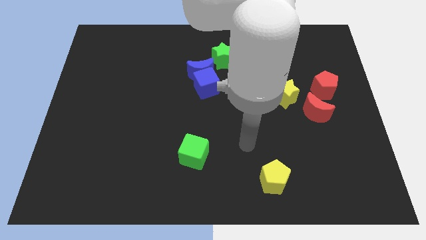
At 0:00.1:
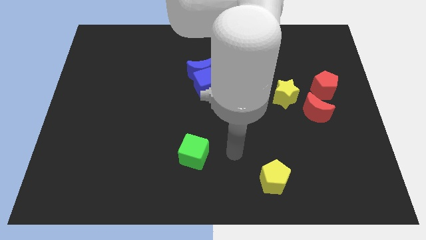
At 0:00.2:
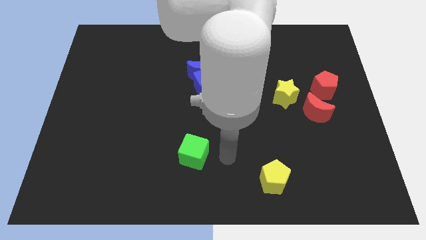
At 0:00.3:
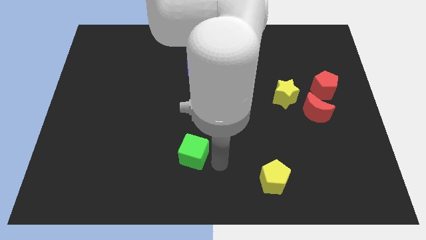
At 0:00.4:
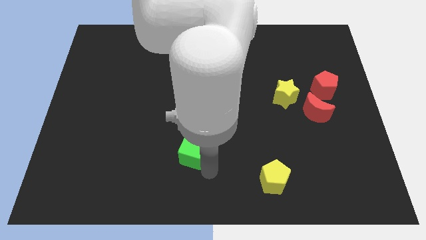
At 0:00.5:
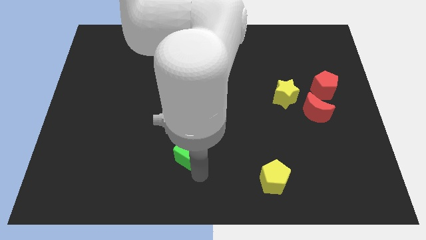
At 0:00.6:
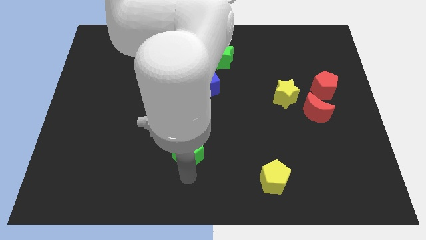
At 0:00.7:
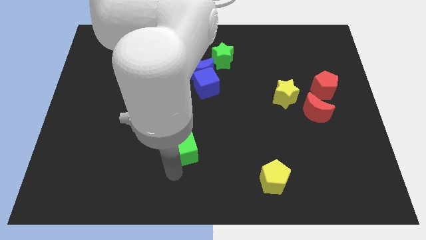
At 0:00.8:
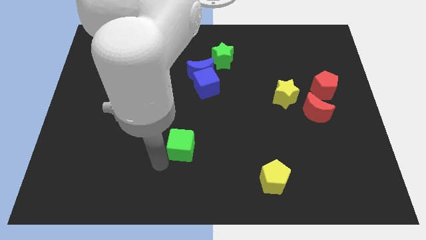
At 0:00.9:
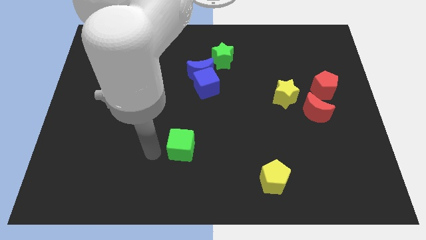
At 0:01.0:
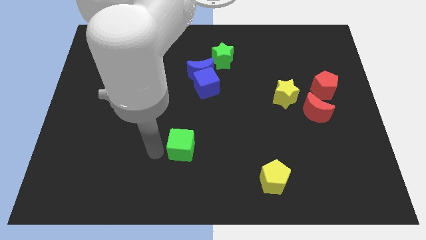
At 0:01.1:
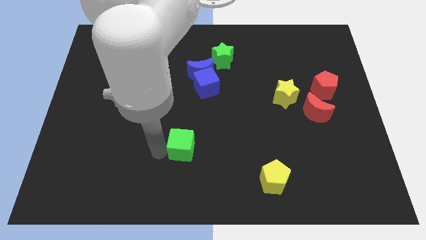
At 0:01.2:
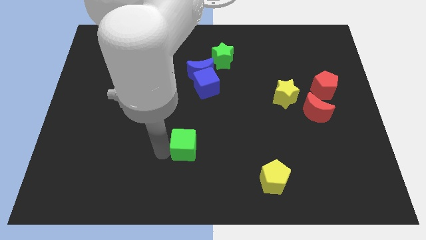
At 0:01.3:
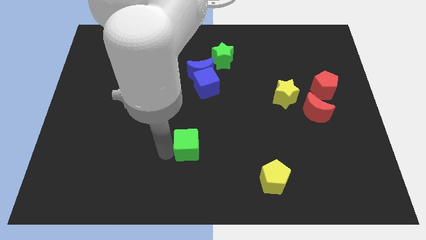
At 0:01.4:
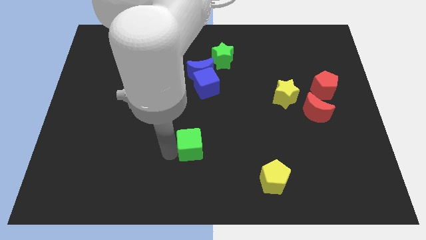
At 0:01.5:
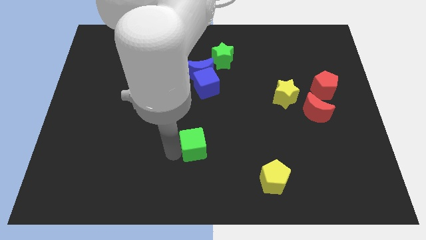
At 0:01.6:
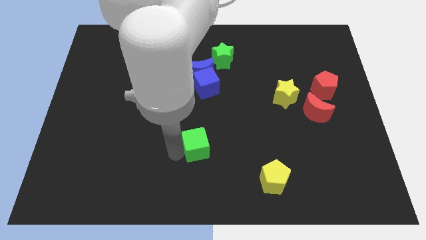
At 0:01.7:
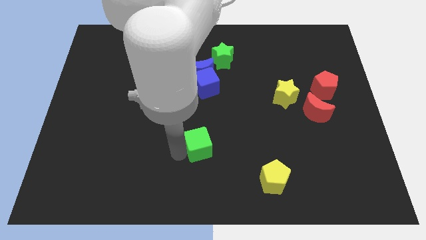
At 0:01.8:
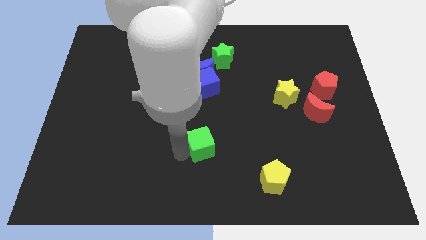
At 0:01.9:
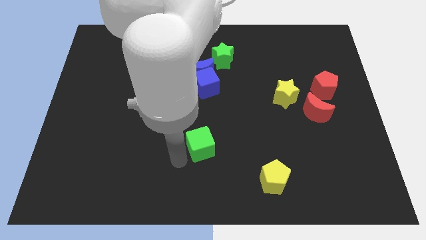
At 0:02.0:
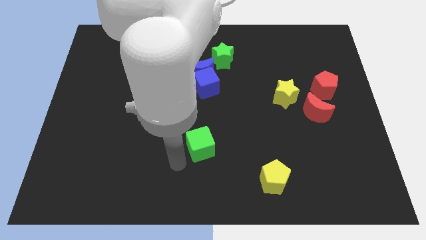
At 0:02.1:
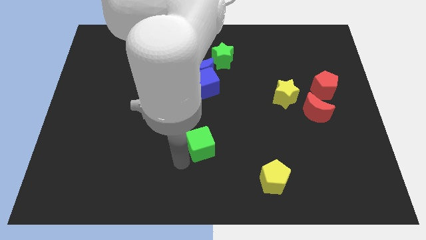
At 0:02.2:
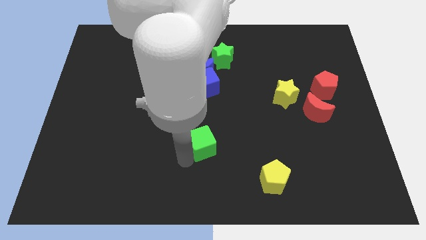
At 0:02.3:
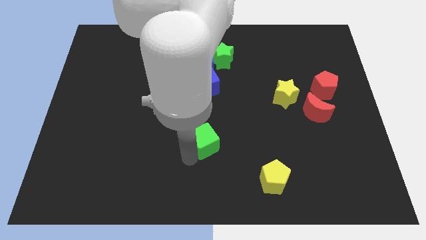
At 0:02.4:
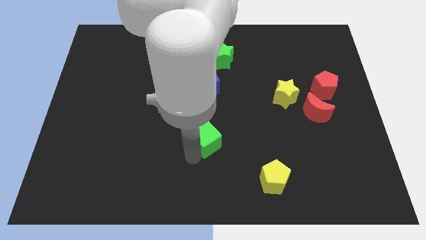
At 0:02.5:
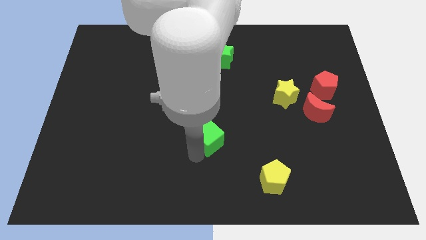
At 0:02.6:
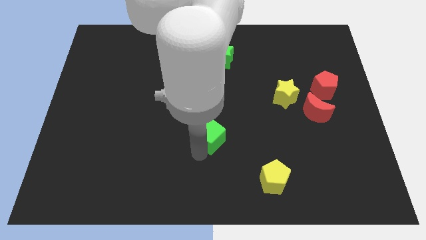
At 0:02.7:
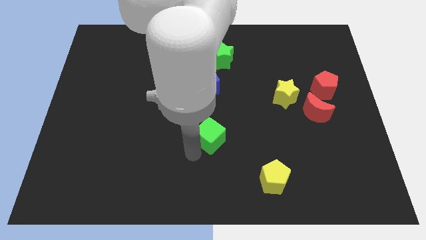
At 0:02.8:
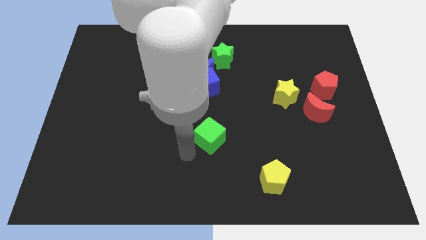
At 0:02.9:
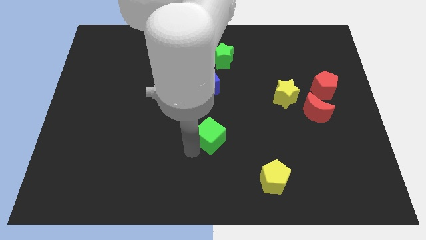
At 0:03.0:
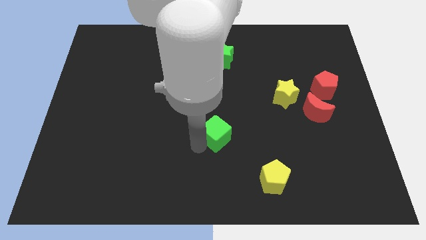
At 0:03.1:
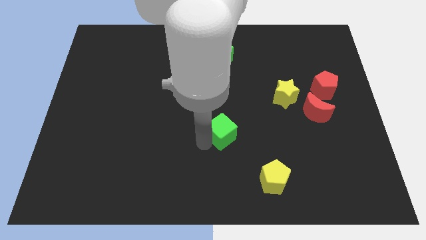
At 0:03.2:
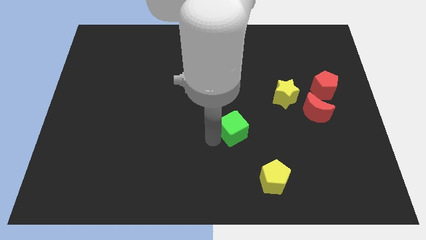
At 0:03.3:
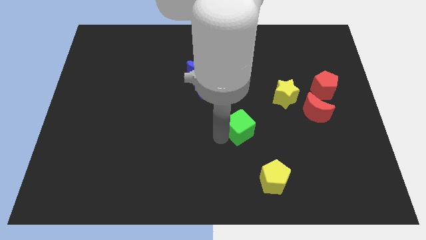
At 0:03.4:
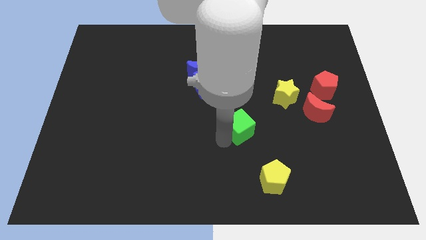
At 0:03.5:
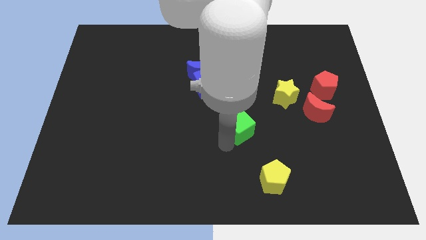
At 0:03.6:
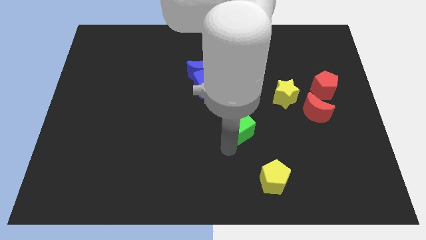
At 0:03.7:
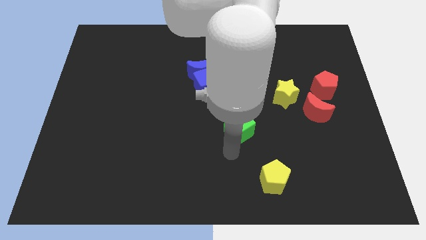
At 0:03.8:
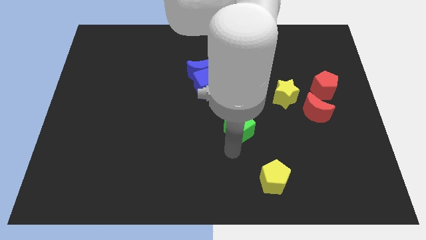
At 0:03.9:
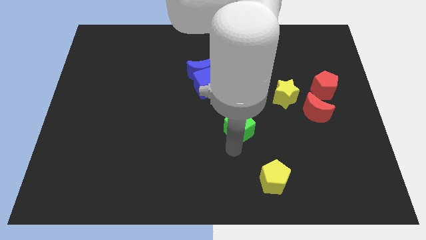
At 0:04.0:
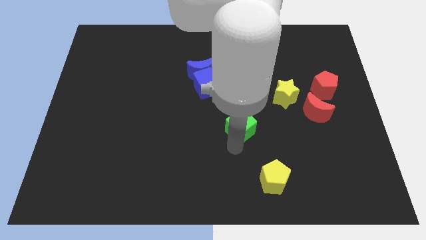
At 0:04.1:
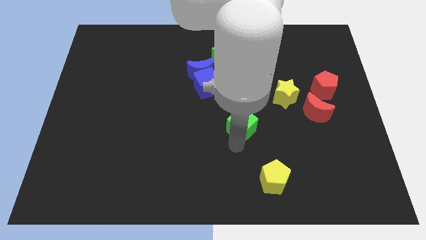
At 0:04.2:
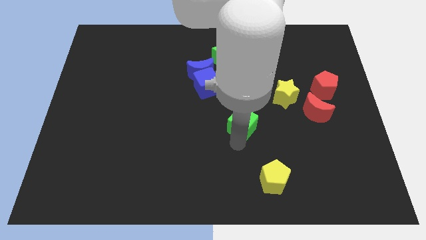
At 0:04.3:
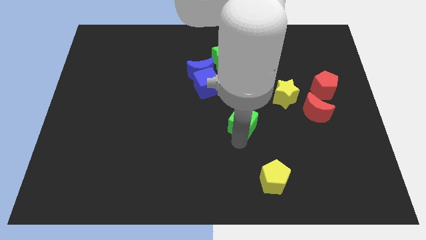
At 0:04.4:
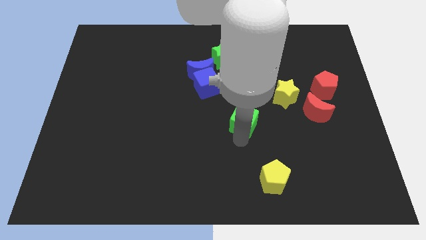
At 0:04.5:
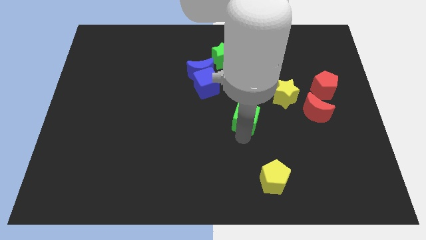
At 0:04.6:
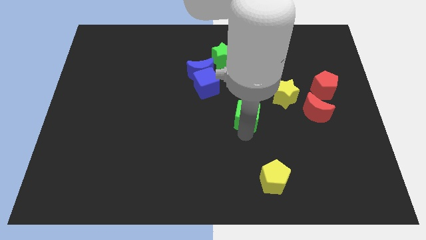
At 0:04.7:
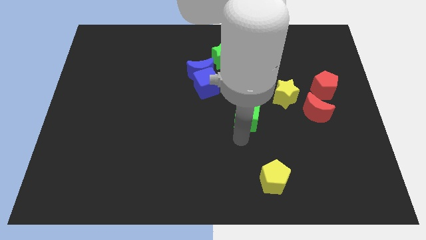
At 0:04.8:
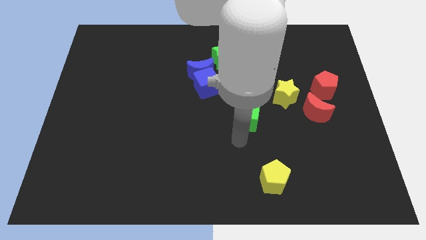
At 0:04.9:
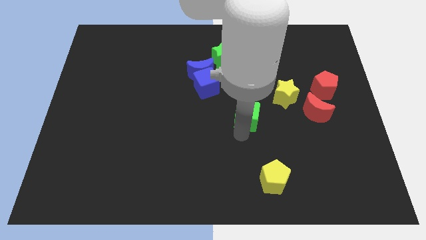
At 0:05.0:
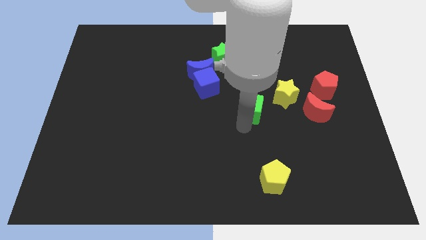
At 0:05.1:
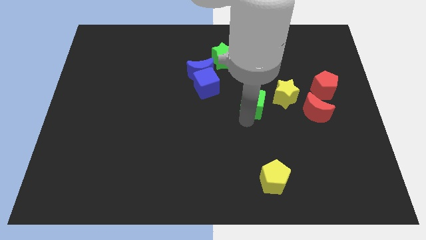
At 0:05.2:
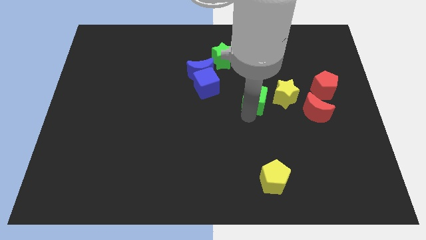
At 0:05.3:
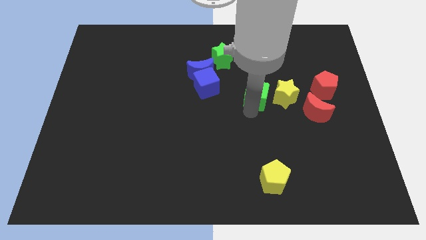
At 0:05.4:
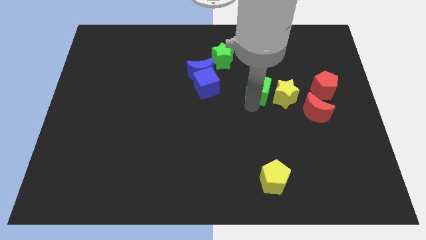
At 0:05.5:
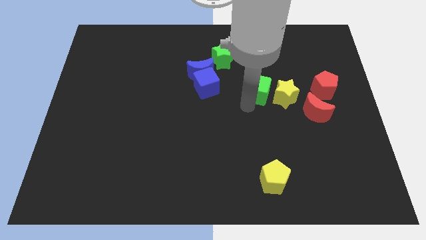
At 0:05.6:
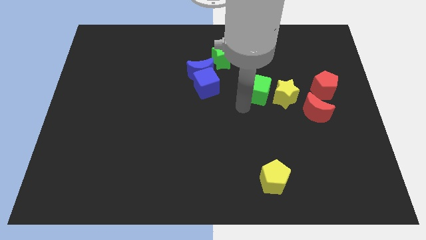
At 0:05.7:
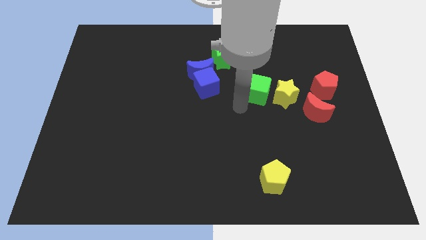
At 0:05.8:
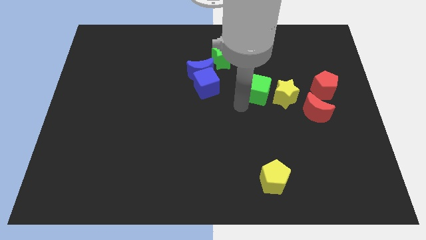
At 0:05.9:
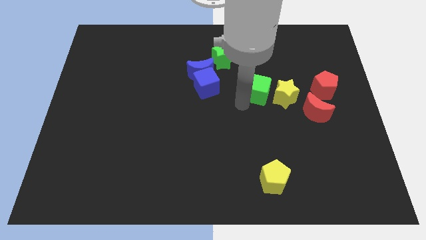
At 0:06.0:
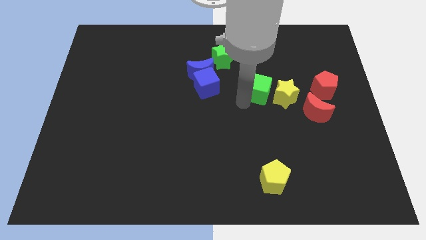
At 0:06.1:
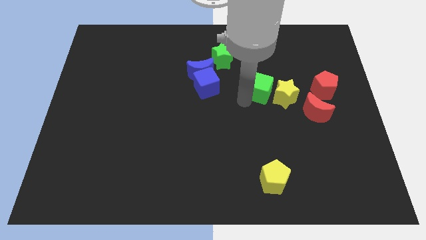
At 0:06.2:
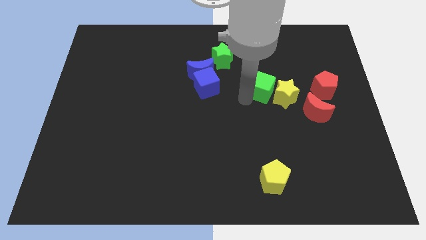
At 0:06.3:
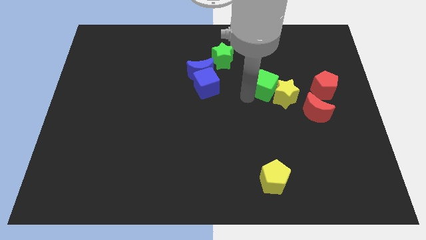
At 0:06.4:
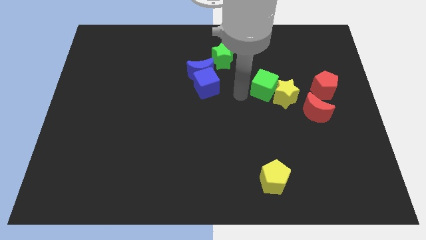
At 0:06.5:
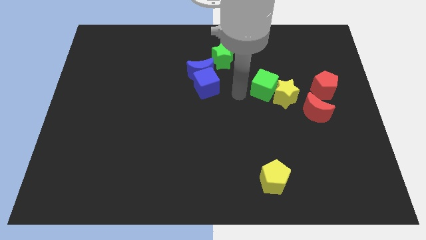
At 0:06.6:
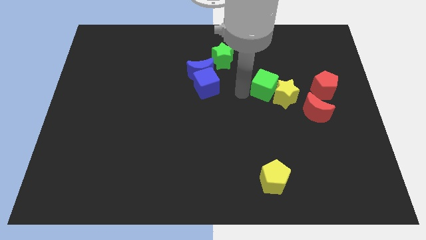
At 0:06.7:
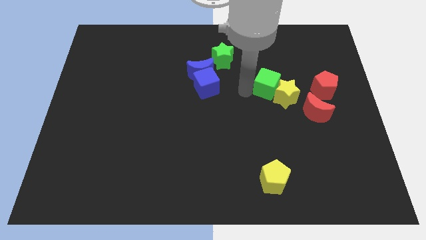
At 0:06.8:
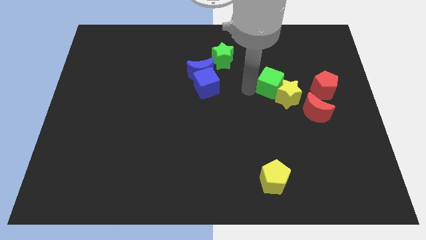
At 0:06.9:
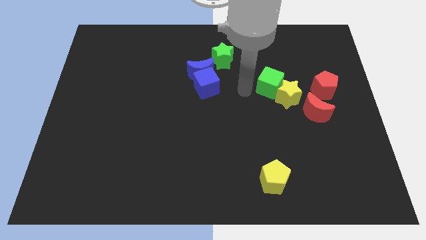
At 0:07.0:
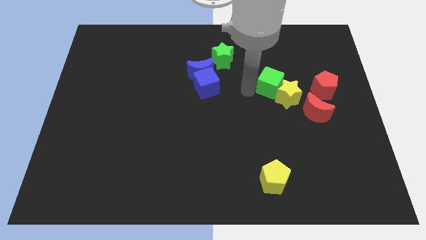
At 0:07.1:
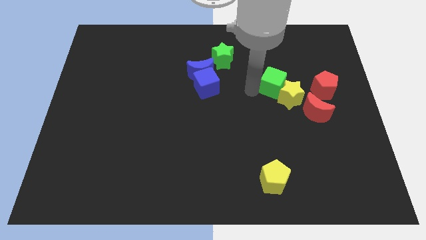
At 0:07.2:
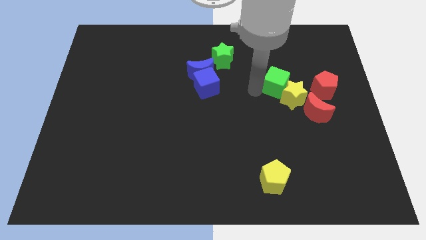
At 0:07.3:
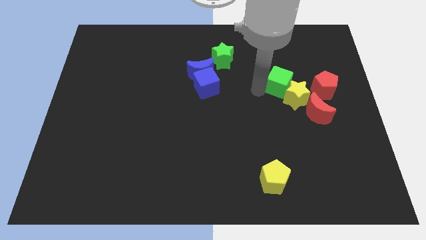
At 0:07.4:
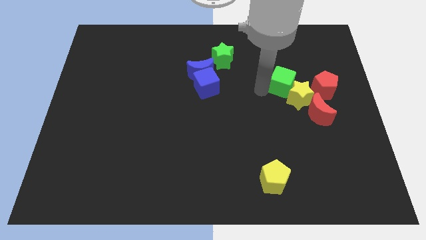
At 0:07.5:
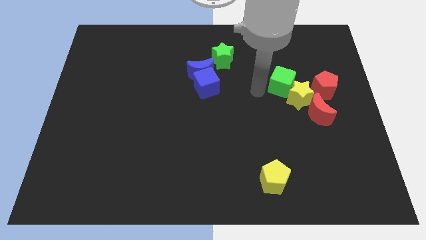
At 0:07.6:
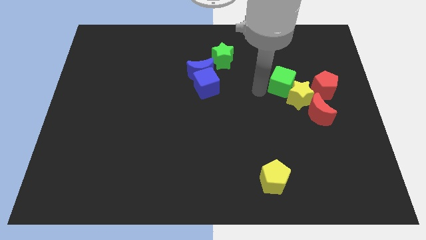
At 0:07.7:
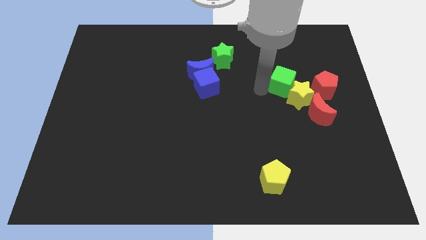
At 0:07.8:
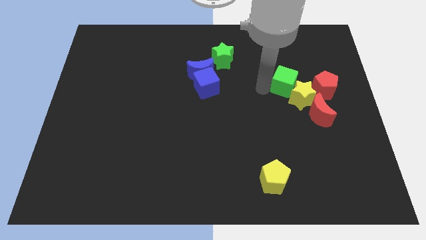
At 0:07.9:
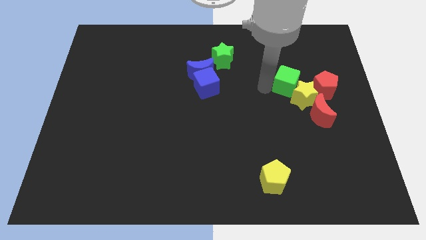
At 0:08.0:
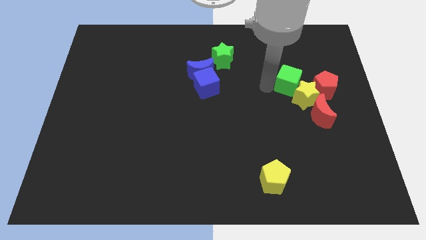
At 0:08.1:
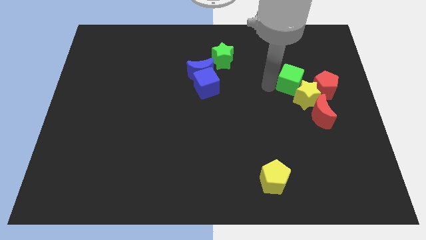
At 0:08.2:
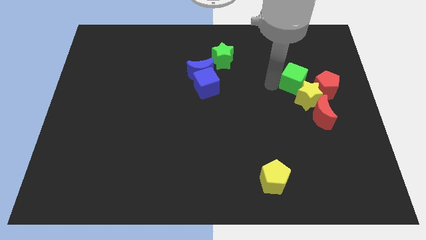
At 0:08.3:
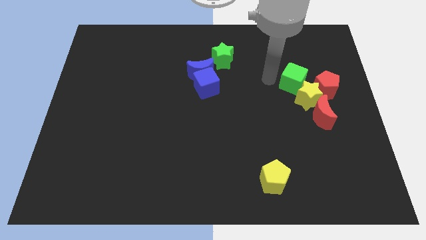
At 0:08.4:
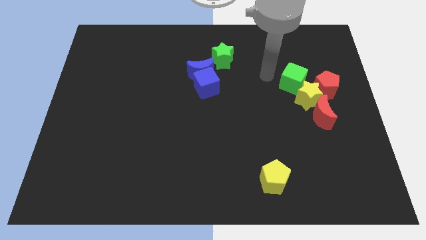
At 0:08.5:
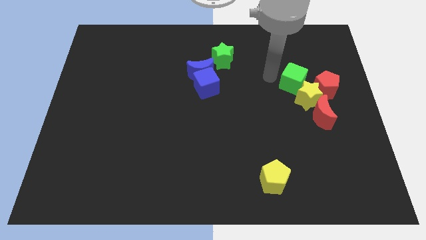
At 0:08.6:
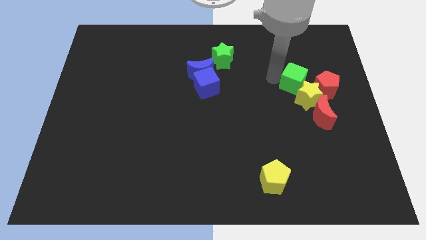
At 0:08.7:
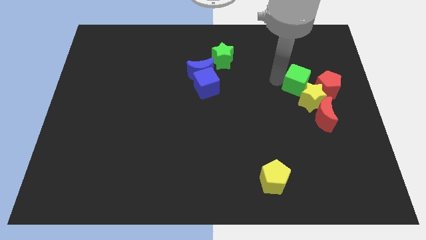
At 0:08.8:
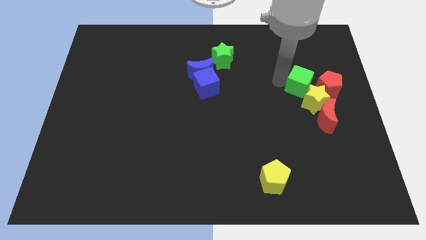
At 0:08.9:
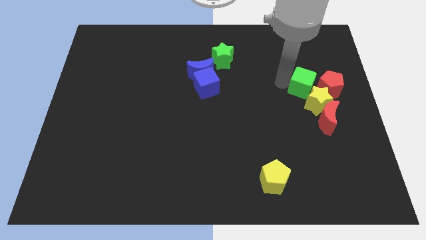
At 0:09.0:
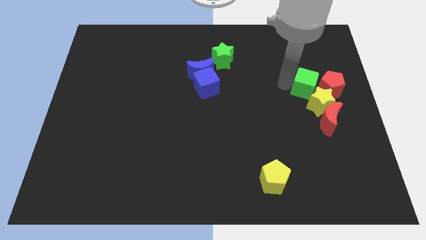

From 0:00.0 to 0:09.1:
push the green cube to the red pentagon
